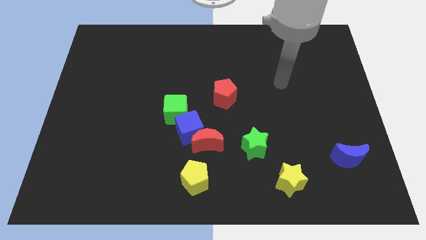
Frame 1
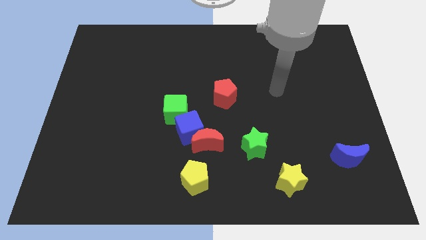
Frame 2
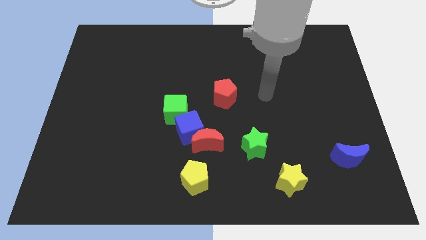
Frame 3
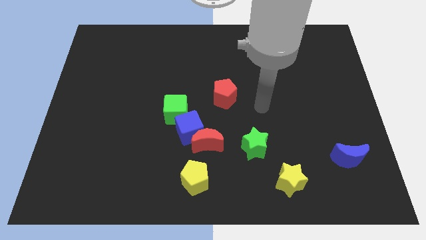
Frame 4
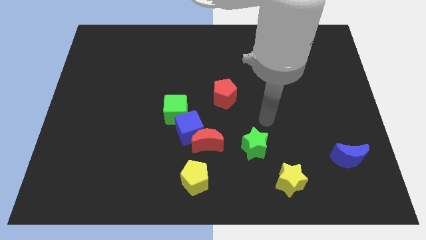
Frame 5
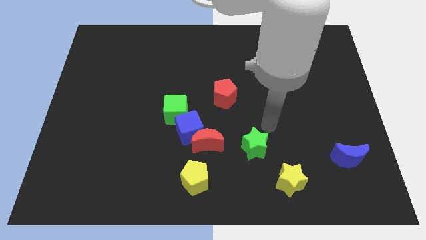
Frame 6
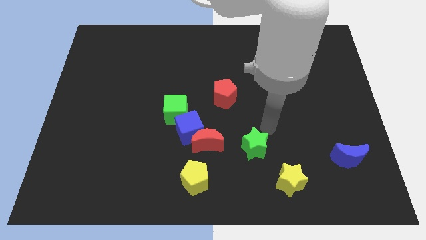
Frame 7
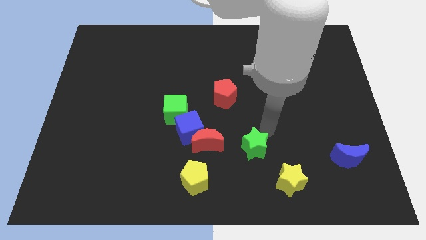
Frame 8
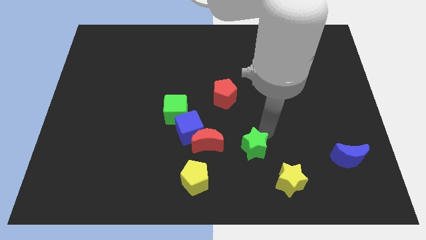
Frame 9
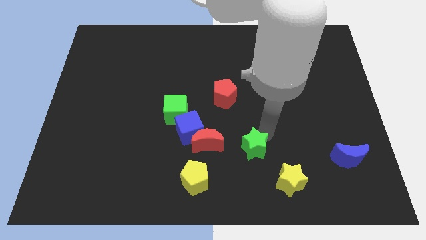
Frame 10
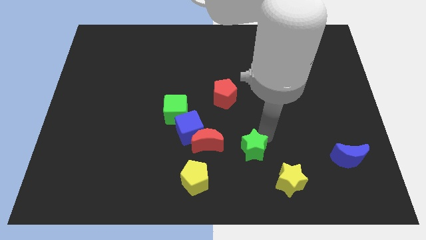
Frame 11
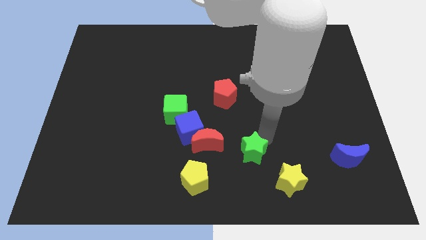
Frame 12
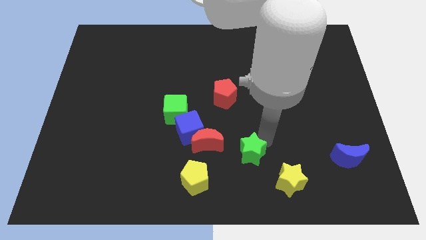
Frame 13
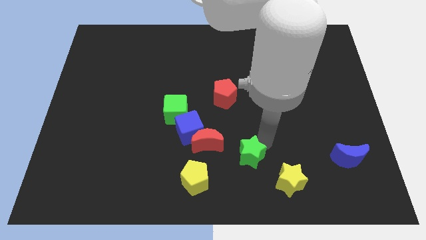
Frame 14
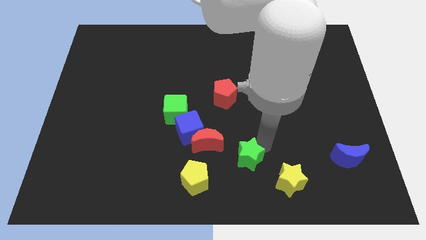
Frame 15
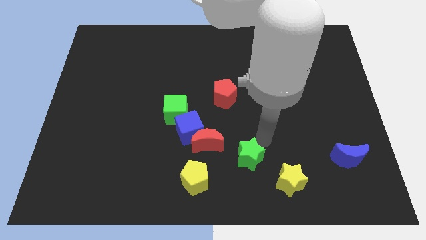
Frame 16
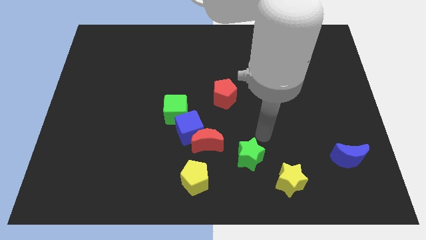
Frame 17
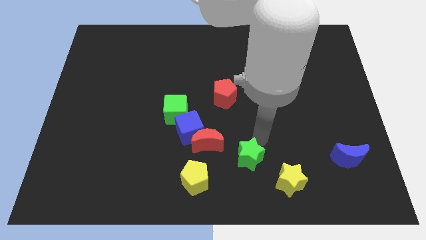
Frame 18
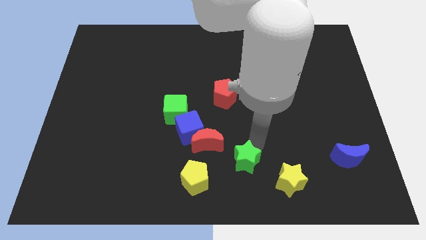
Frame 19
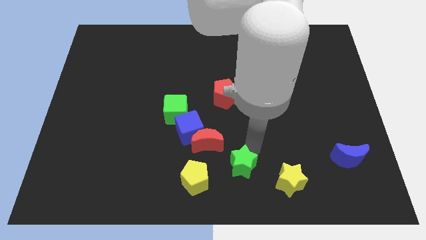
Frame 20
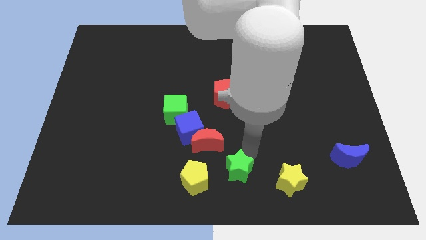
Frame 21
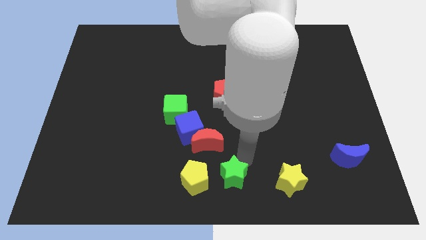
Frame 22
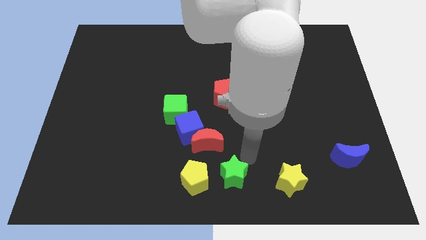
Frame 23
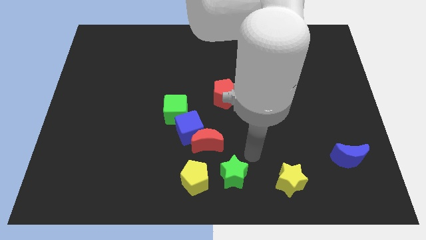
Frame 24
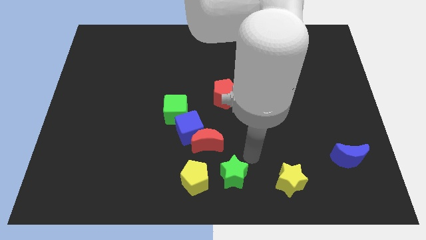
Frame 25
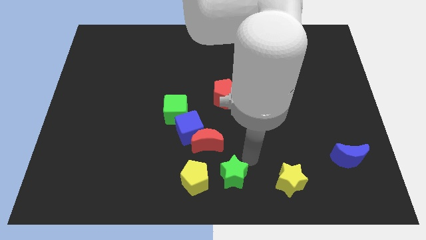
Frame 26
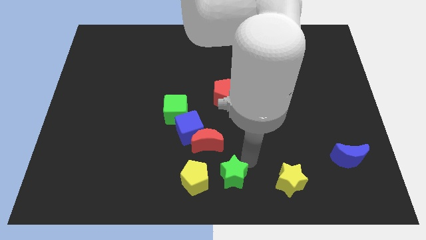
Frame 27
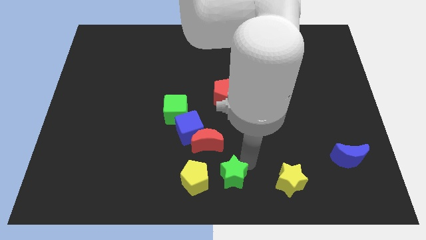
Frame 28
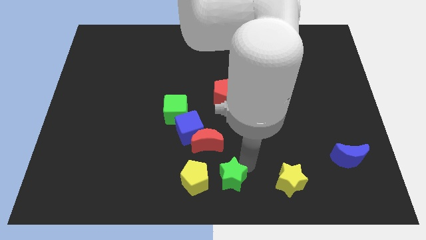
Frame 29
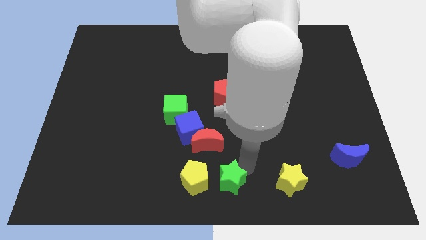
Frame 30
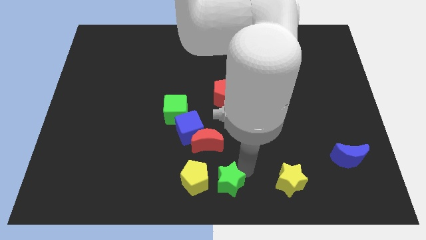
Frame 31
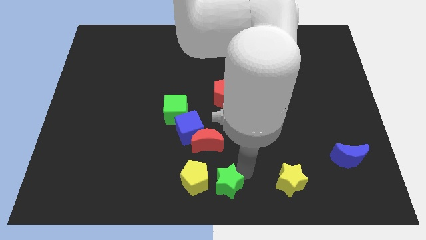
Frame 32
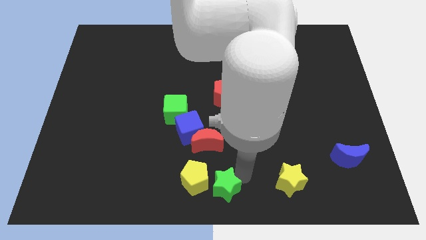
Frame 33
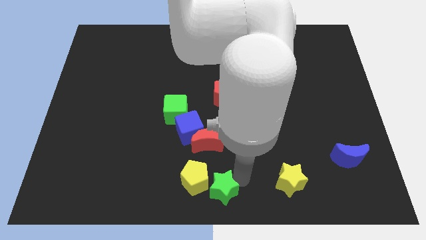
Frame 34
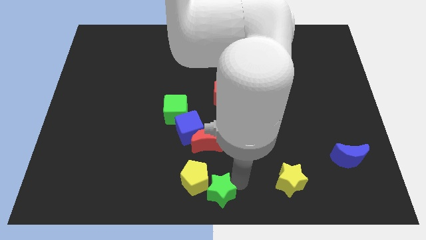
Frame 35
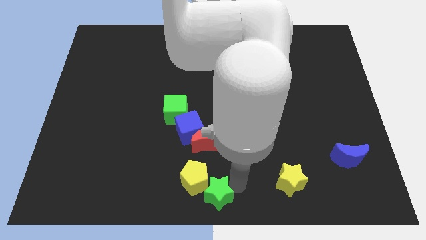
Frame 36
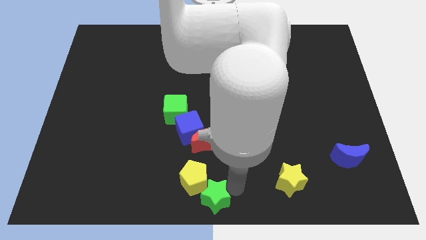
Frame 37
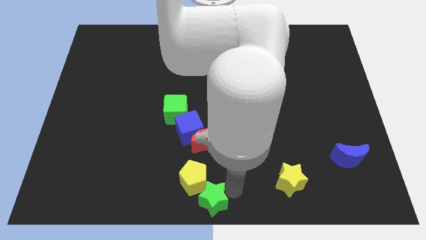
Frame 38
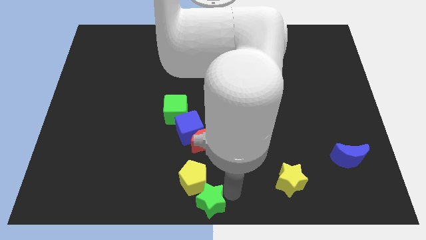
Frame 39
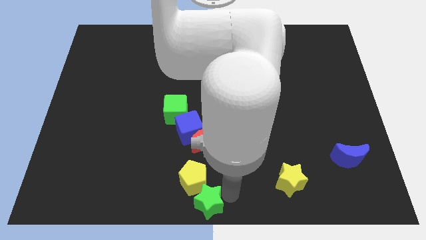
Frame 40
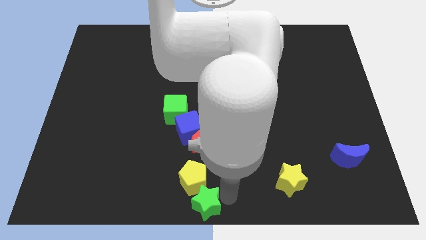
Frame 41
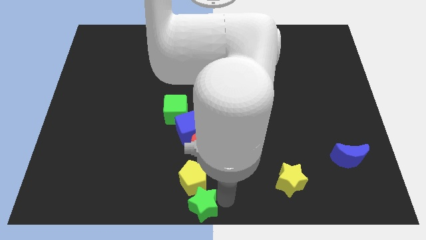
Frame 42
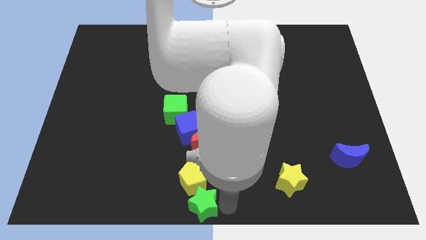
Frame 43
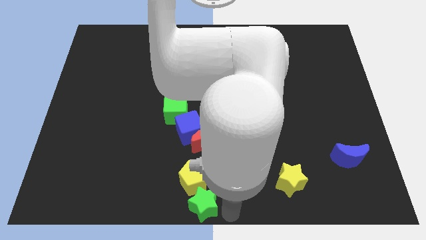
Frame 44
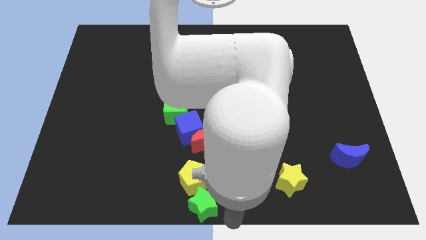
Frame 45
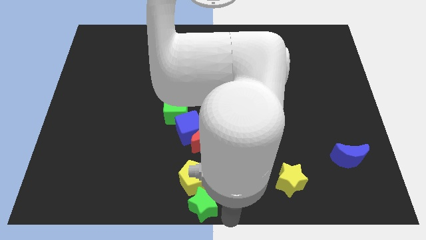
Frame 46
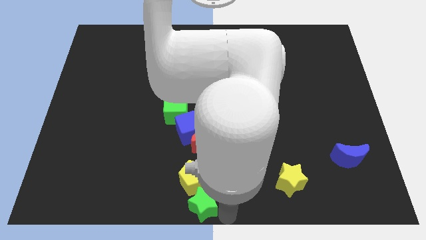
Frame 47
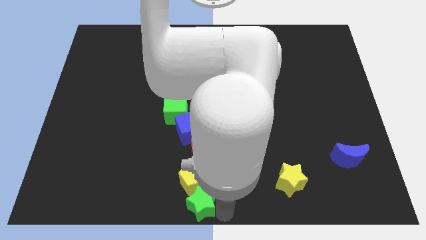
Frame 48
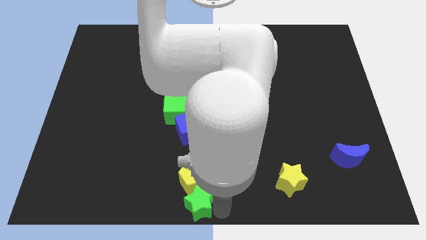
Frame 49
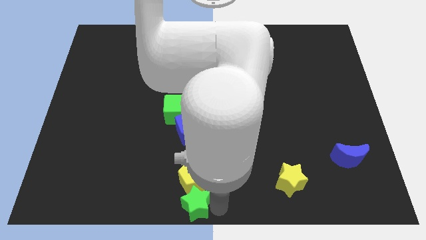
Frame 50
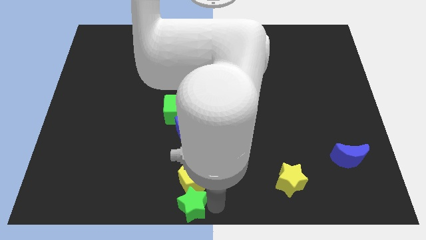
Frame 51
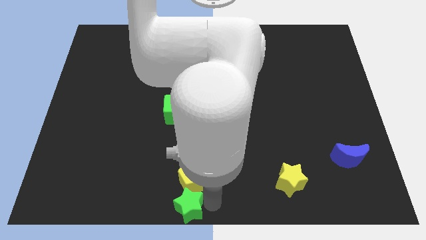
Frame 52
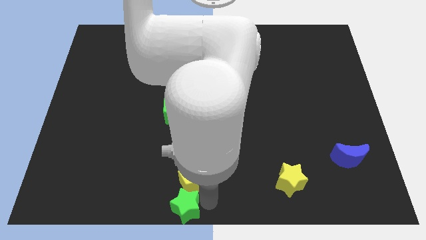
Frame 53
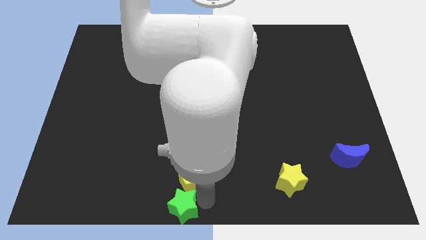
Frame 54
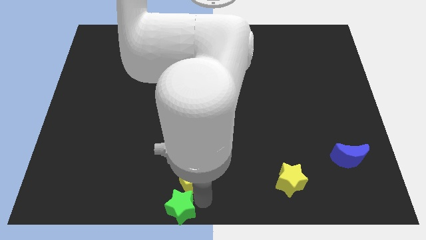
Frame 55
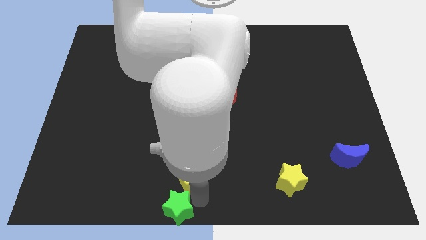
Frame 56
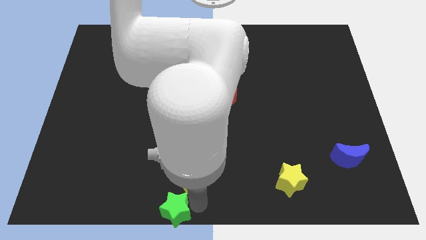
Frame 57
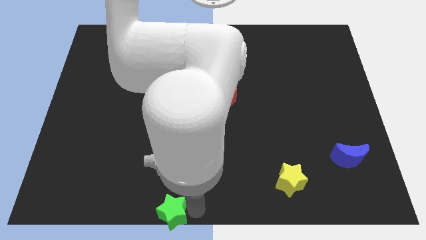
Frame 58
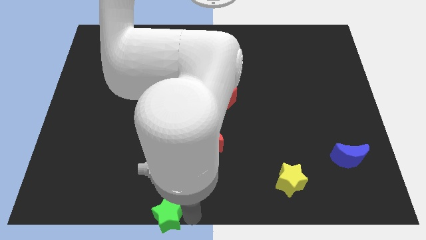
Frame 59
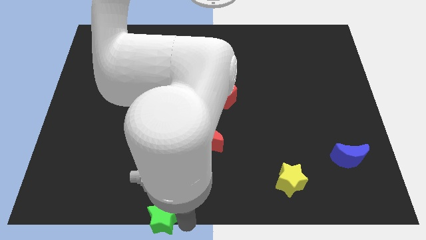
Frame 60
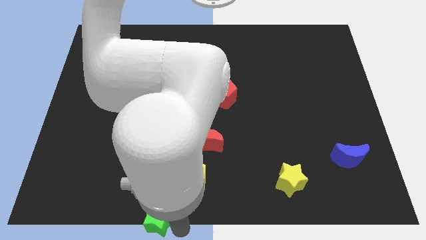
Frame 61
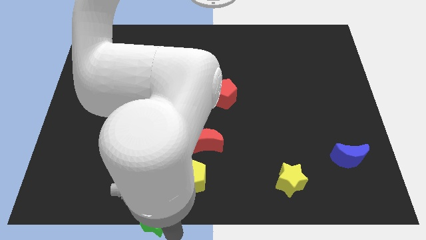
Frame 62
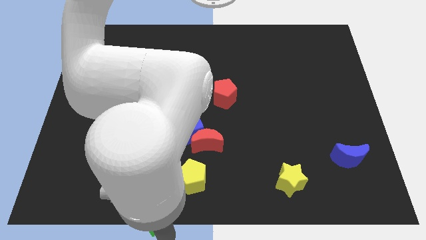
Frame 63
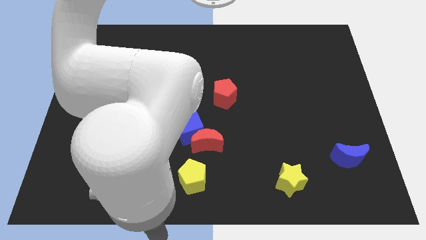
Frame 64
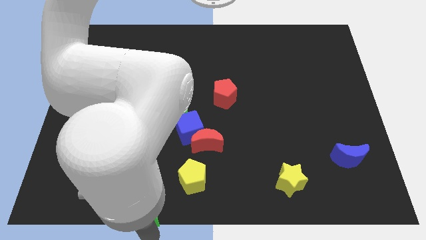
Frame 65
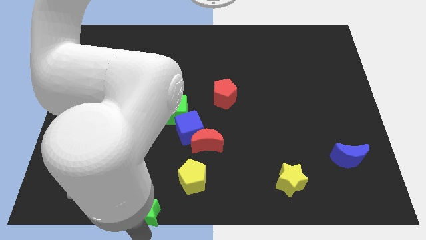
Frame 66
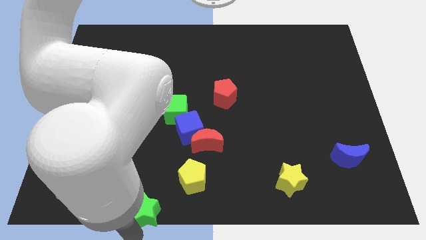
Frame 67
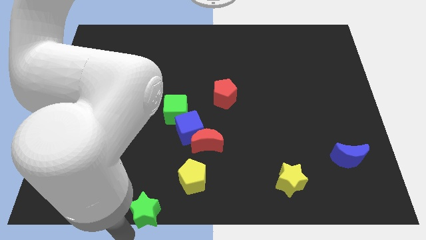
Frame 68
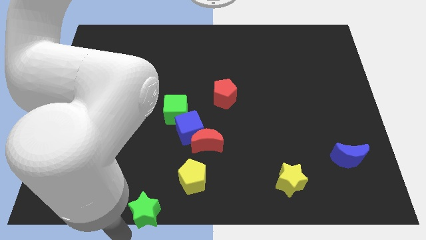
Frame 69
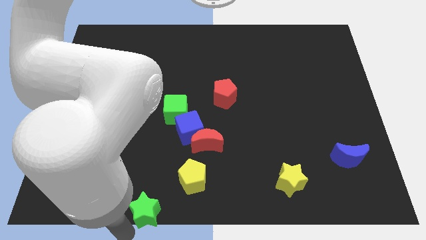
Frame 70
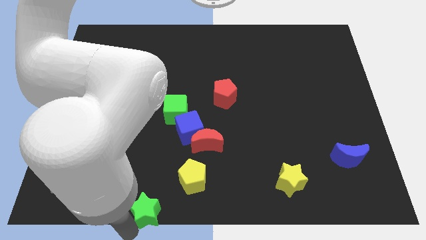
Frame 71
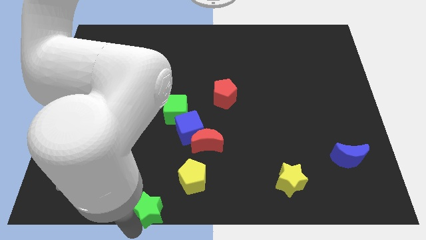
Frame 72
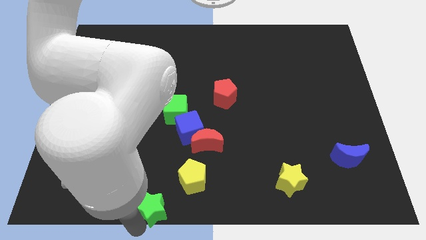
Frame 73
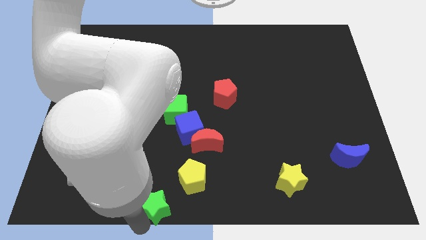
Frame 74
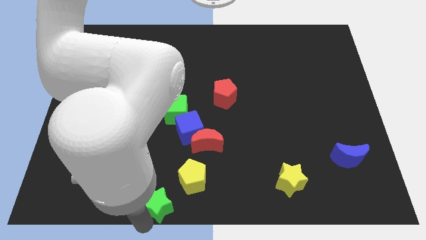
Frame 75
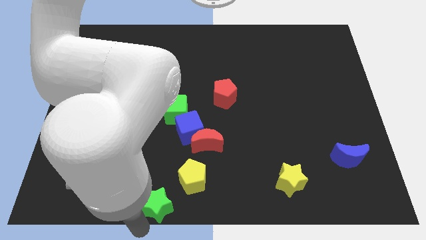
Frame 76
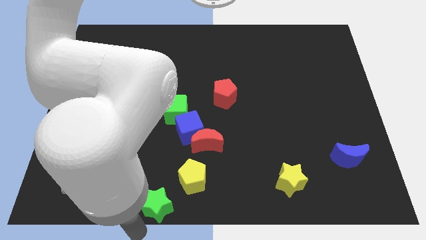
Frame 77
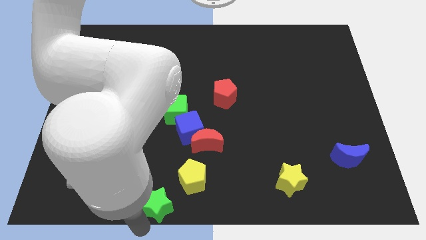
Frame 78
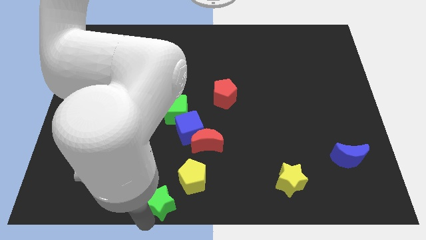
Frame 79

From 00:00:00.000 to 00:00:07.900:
move the green star somewhat left

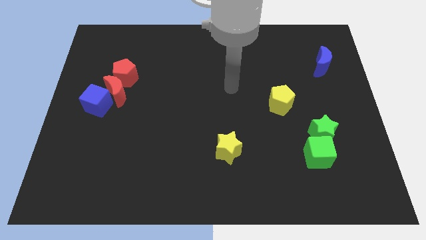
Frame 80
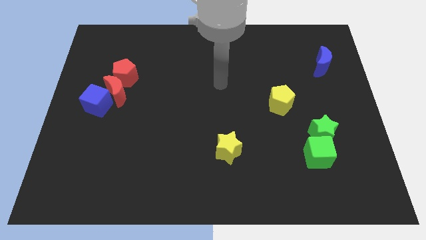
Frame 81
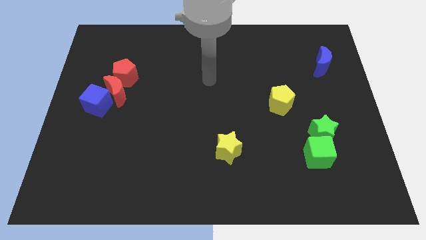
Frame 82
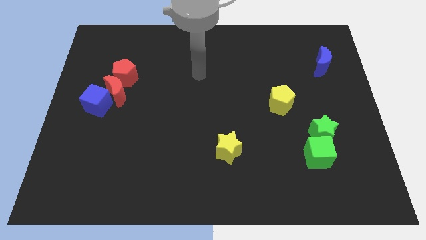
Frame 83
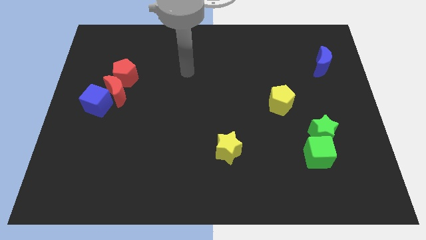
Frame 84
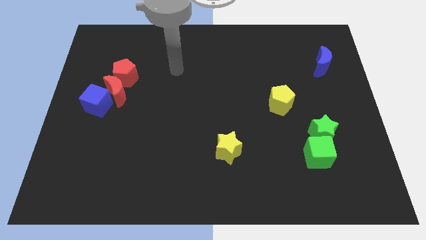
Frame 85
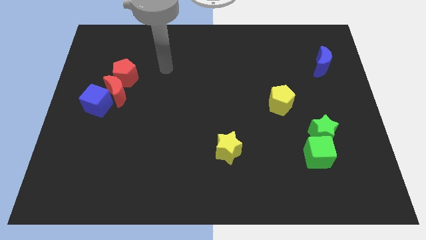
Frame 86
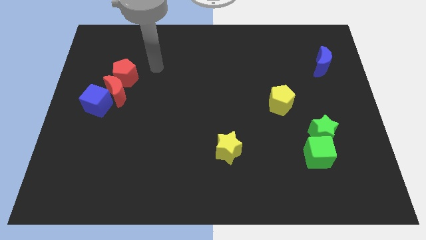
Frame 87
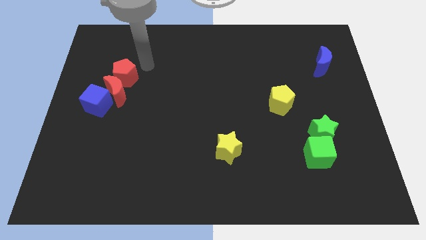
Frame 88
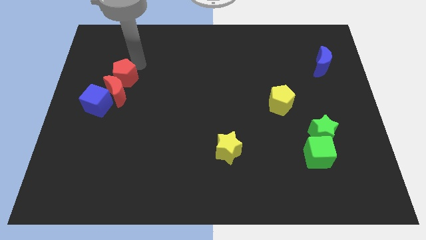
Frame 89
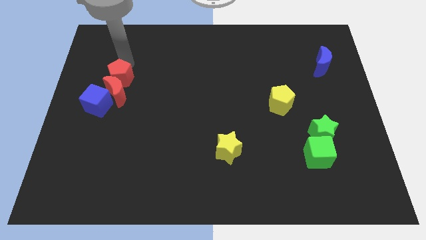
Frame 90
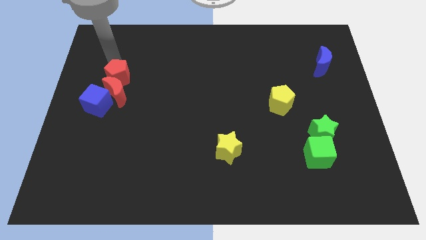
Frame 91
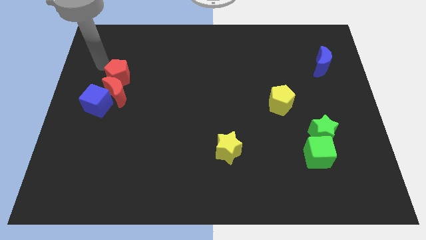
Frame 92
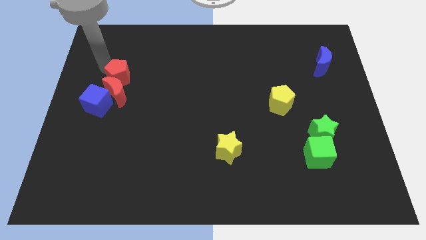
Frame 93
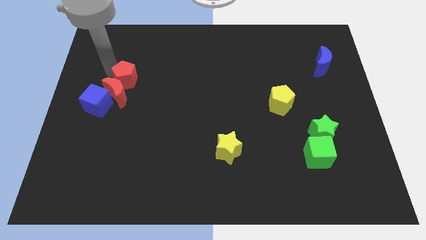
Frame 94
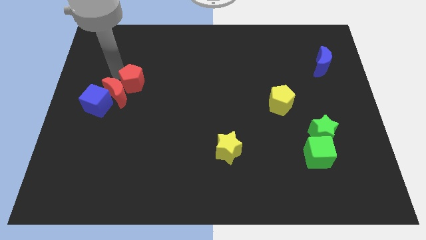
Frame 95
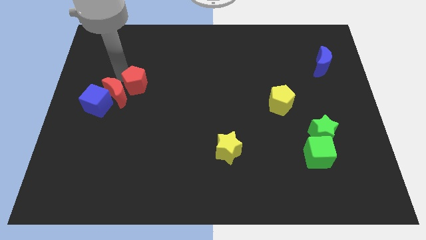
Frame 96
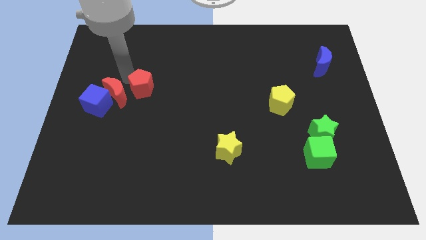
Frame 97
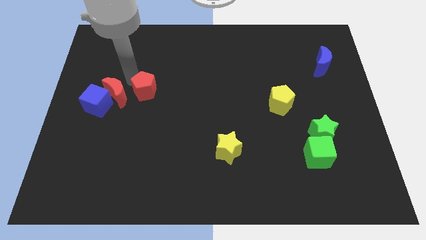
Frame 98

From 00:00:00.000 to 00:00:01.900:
push the red pentagon slightly diagonally downwards and right
